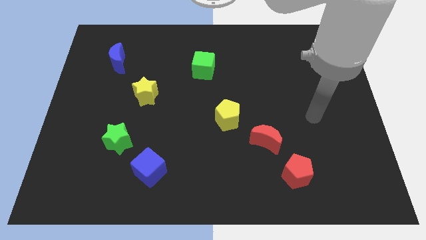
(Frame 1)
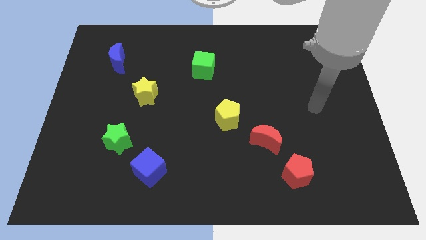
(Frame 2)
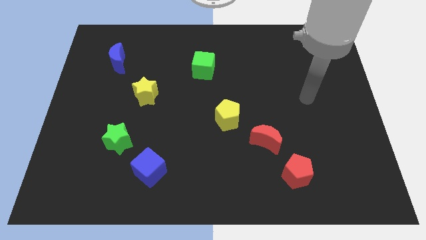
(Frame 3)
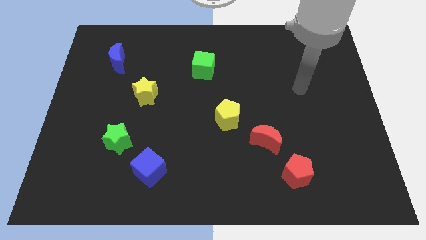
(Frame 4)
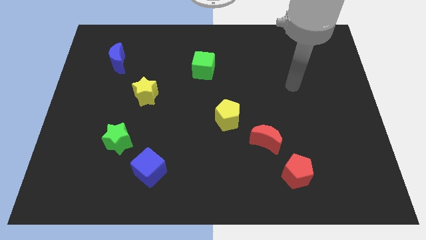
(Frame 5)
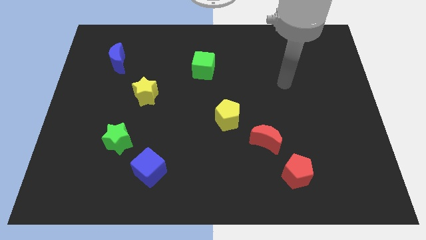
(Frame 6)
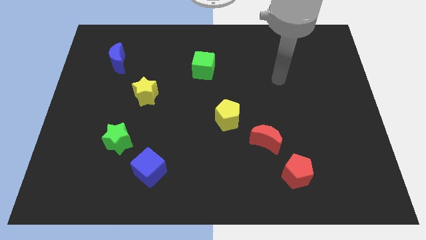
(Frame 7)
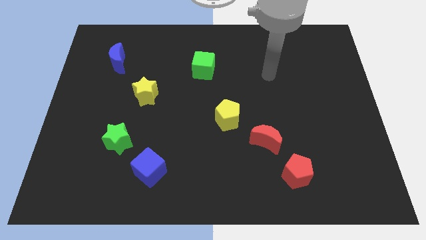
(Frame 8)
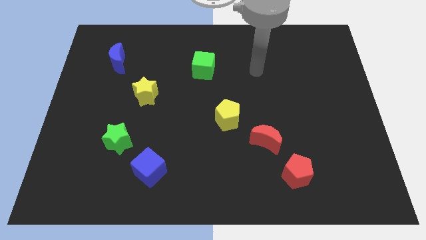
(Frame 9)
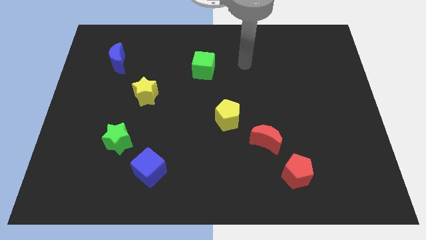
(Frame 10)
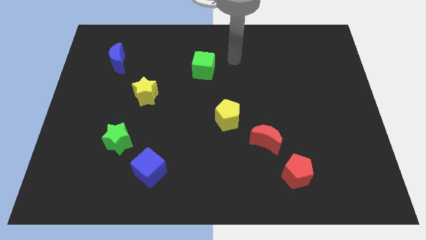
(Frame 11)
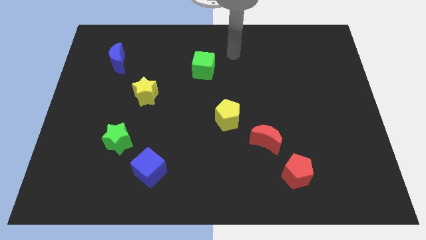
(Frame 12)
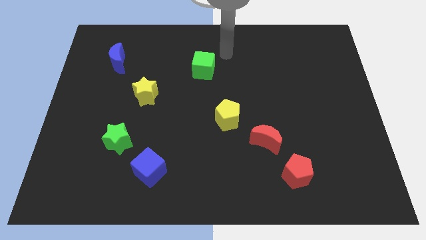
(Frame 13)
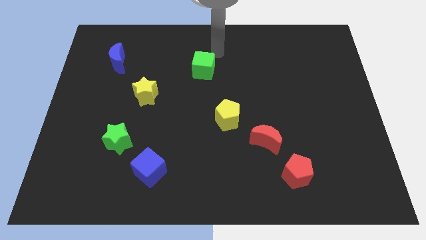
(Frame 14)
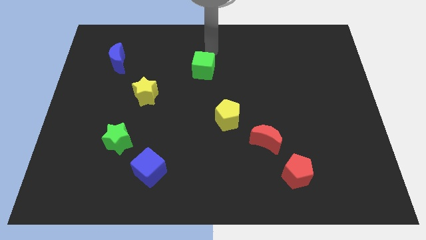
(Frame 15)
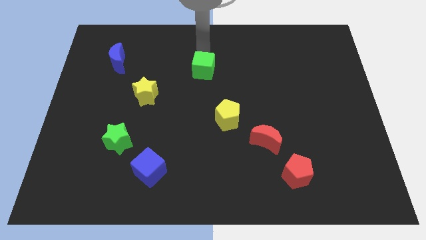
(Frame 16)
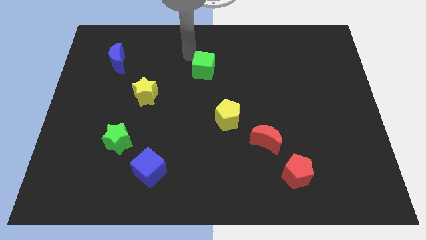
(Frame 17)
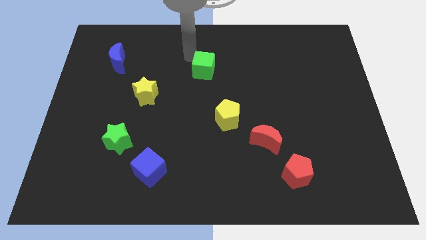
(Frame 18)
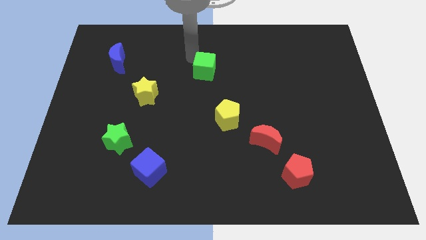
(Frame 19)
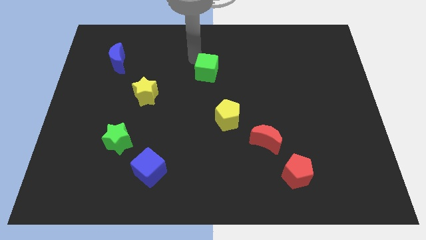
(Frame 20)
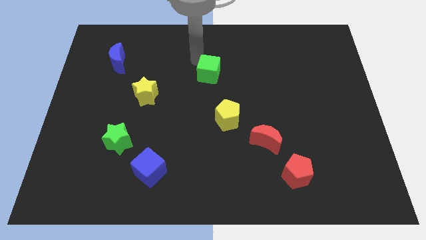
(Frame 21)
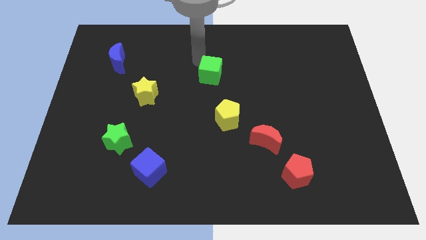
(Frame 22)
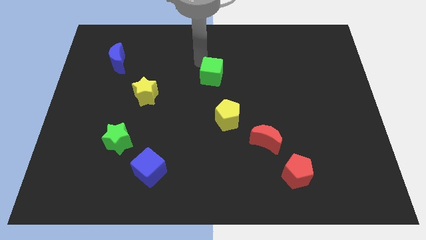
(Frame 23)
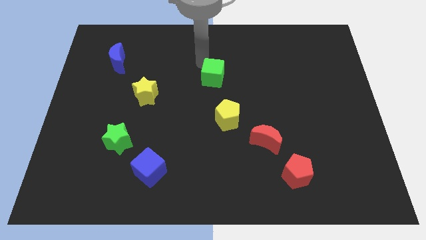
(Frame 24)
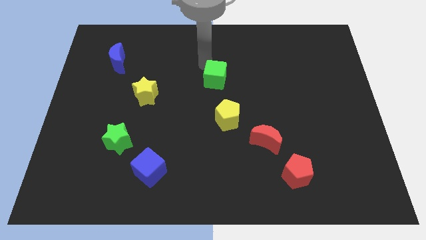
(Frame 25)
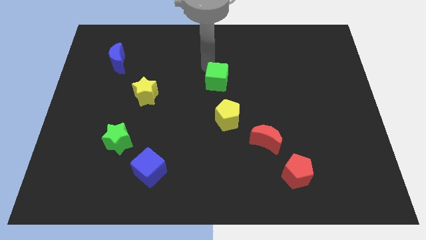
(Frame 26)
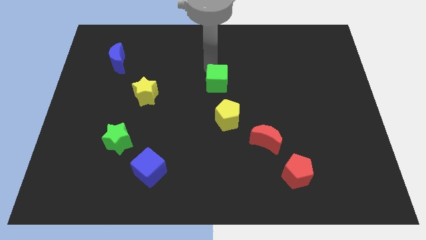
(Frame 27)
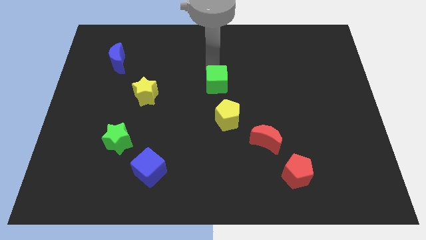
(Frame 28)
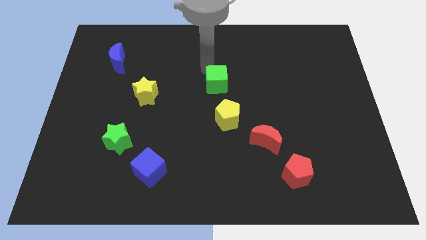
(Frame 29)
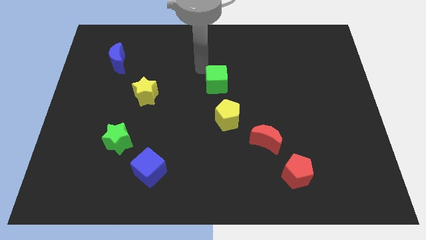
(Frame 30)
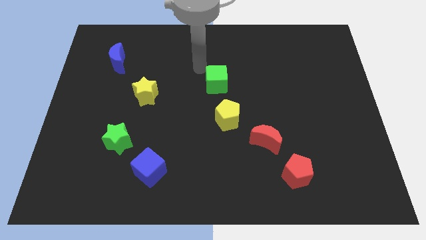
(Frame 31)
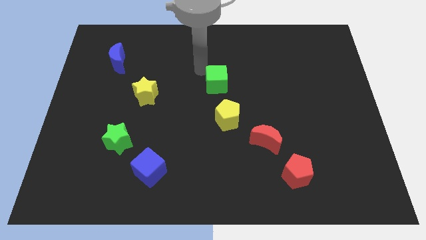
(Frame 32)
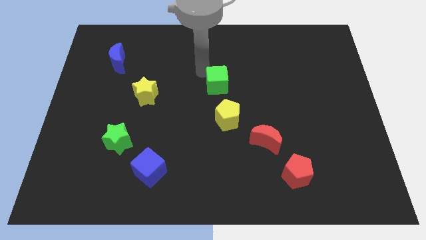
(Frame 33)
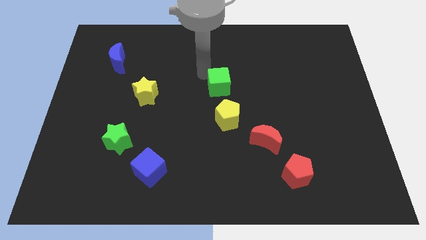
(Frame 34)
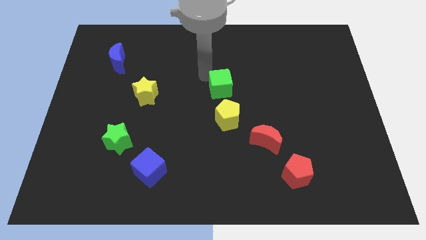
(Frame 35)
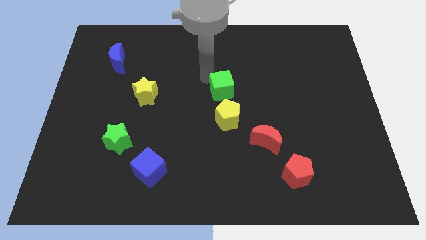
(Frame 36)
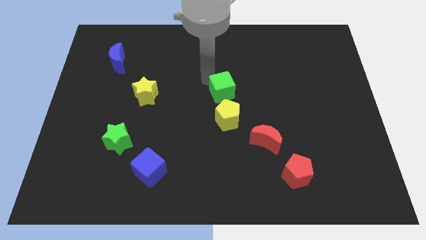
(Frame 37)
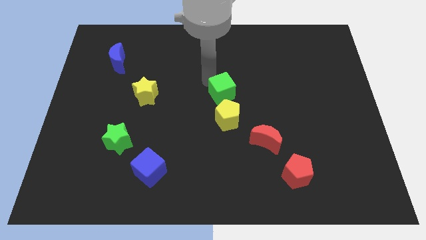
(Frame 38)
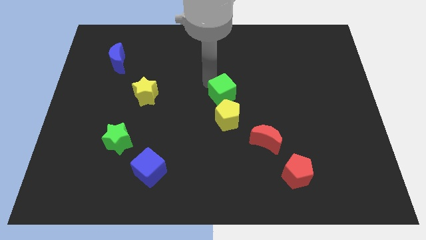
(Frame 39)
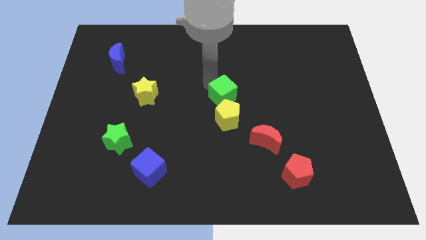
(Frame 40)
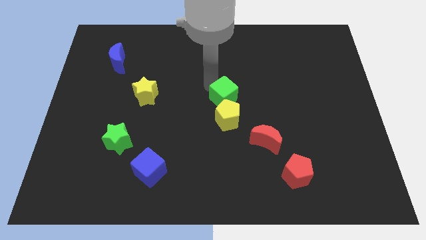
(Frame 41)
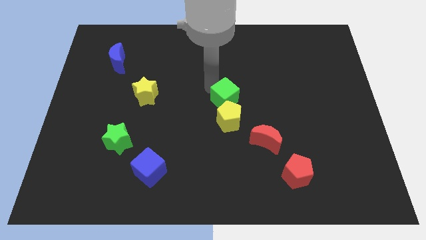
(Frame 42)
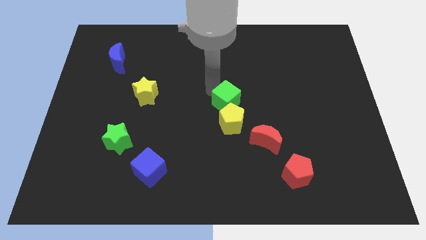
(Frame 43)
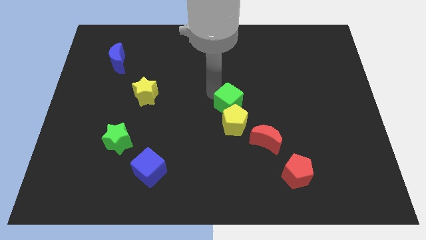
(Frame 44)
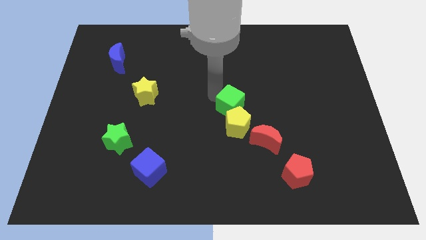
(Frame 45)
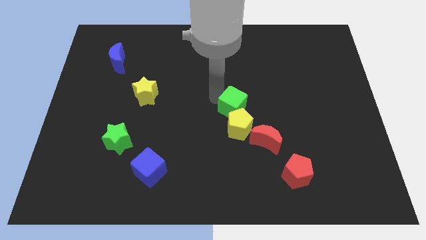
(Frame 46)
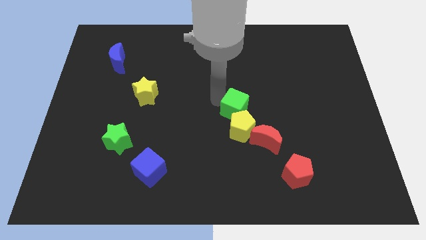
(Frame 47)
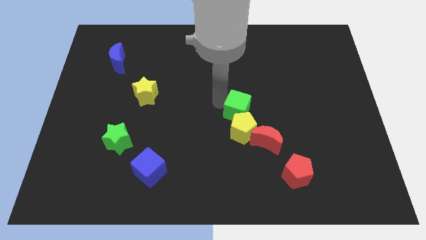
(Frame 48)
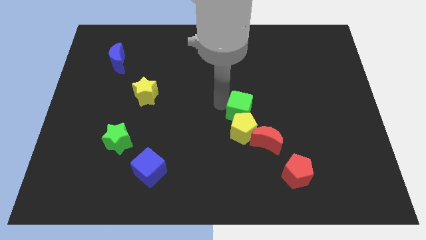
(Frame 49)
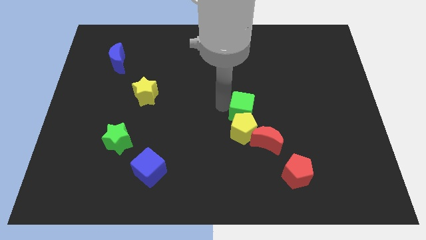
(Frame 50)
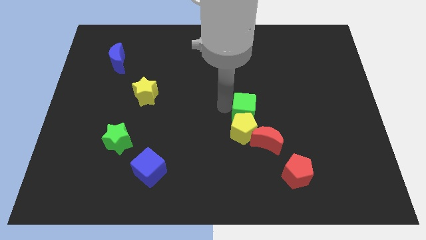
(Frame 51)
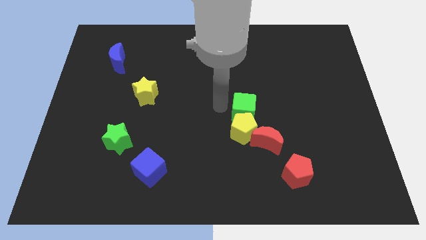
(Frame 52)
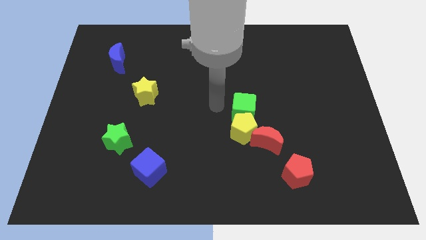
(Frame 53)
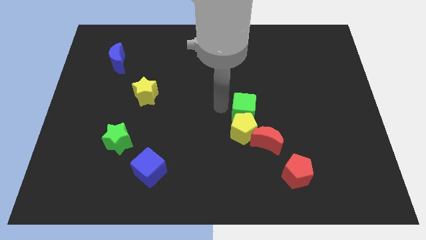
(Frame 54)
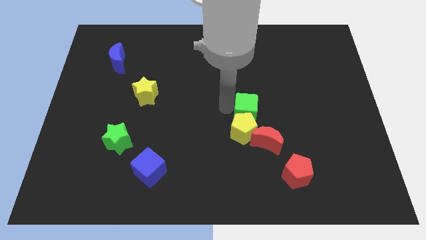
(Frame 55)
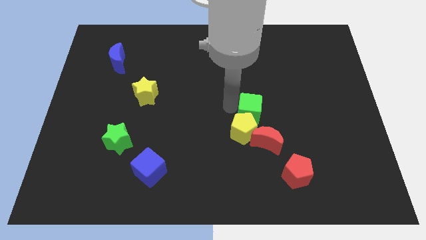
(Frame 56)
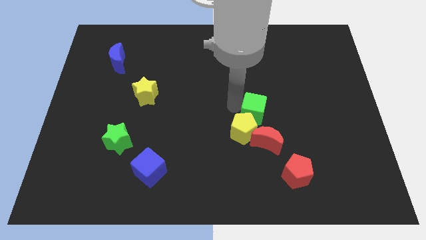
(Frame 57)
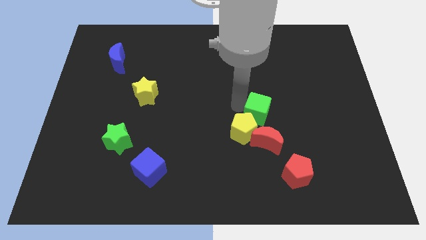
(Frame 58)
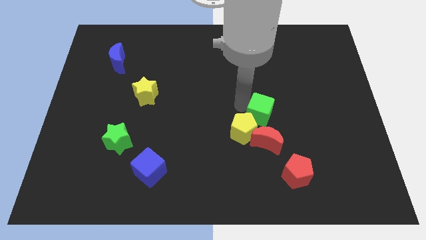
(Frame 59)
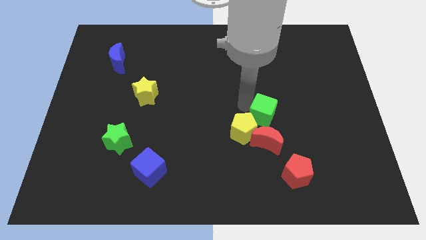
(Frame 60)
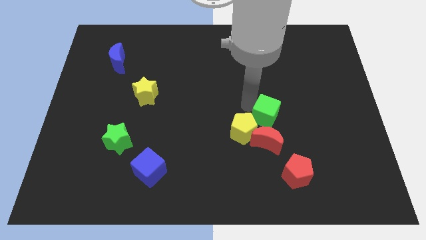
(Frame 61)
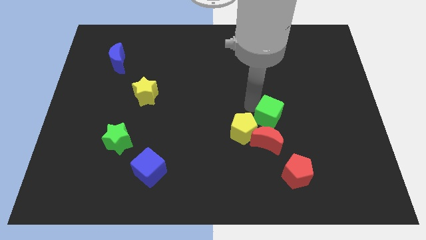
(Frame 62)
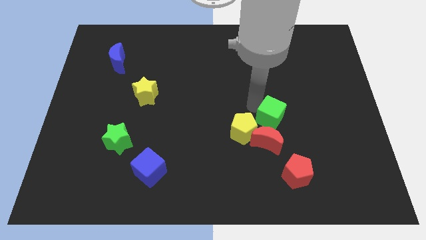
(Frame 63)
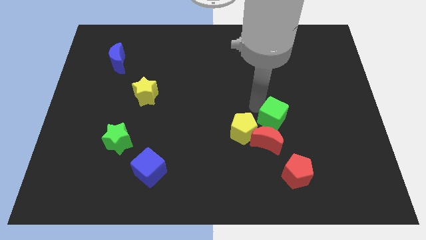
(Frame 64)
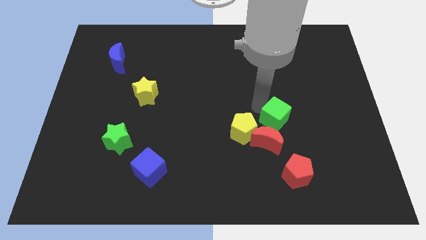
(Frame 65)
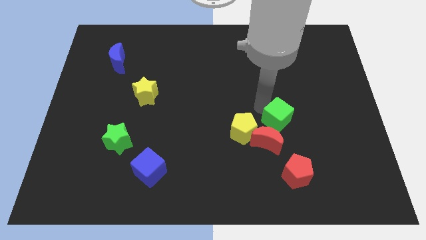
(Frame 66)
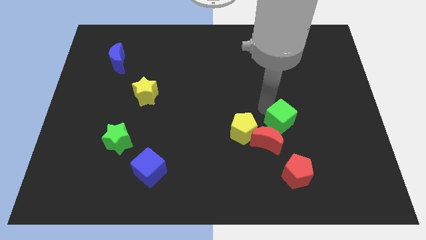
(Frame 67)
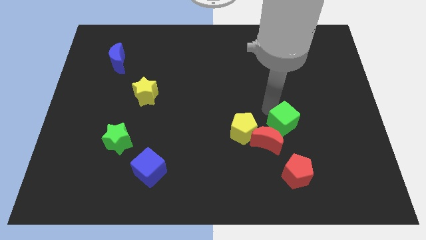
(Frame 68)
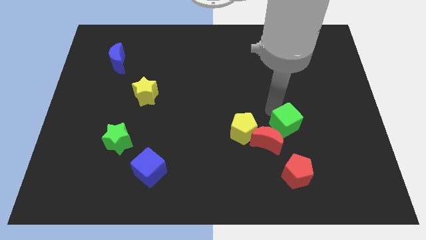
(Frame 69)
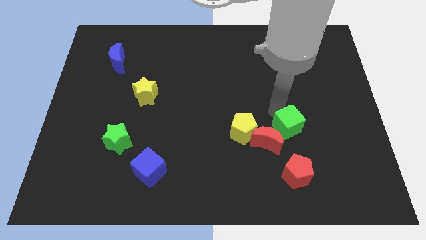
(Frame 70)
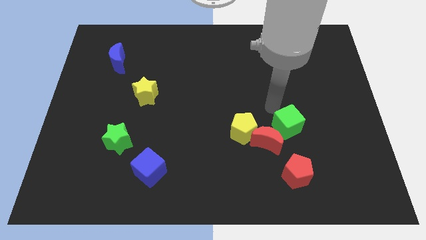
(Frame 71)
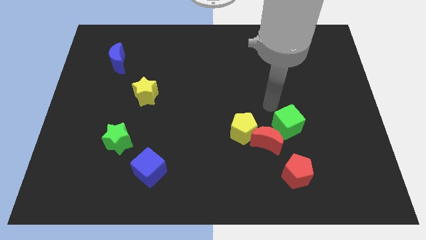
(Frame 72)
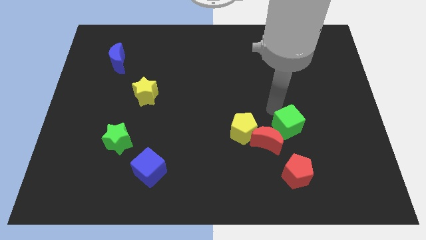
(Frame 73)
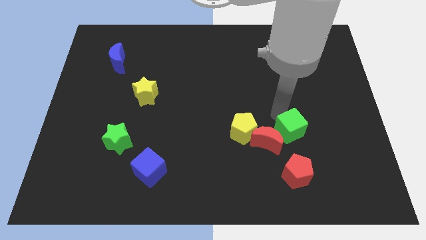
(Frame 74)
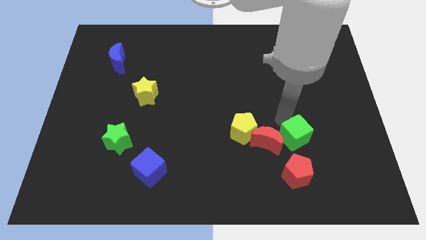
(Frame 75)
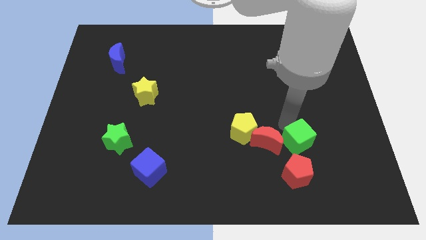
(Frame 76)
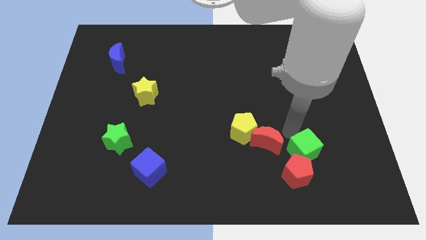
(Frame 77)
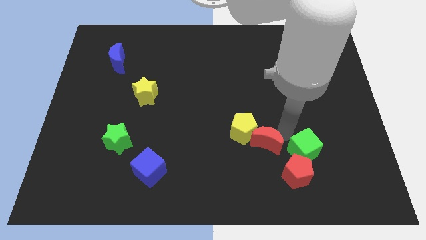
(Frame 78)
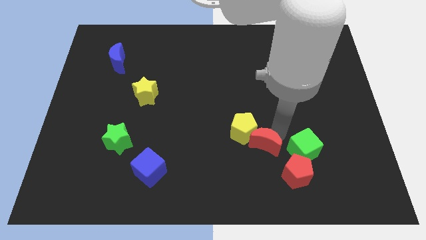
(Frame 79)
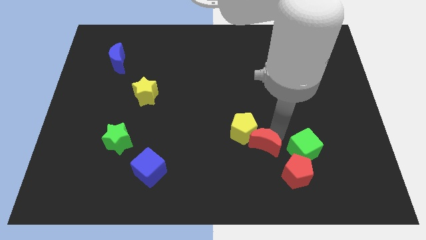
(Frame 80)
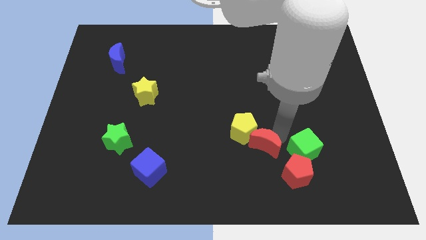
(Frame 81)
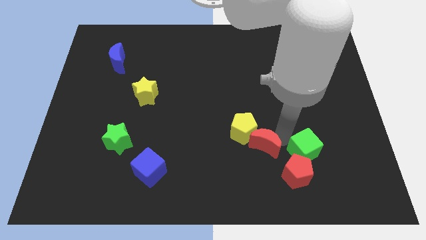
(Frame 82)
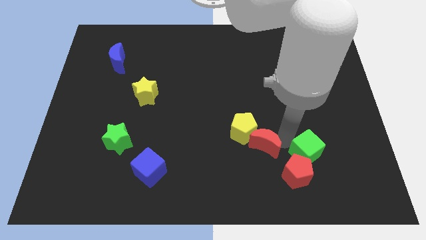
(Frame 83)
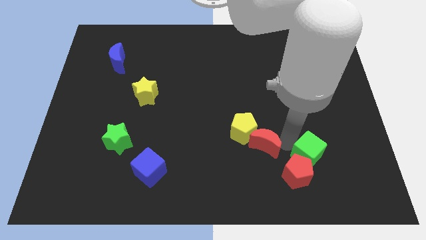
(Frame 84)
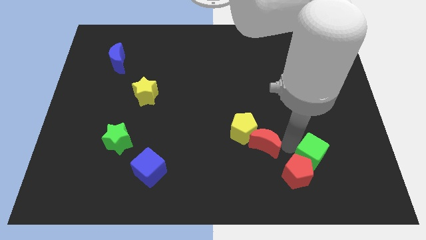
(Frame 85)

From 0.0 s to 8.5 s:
move the green cube just right of the red pentagon
